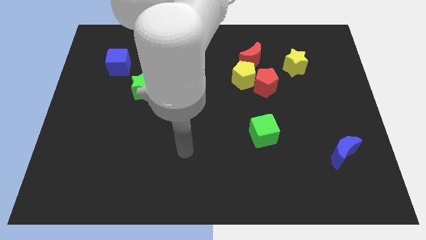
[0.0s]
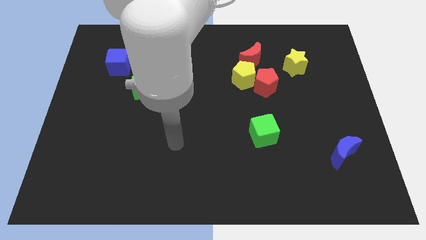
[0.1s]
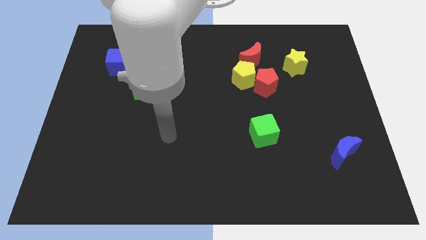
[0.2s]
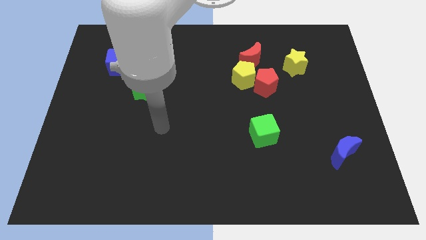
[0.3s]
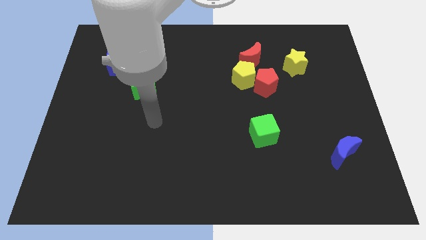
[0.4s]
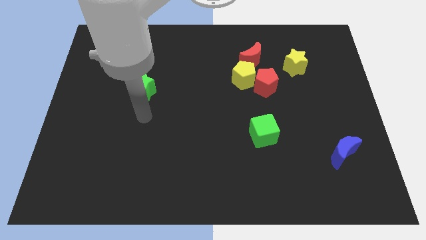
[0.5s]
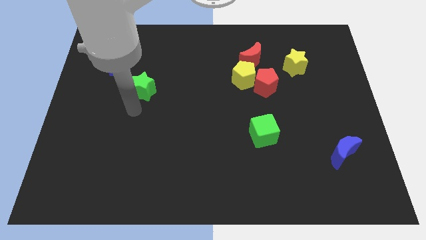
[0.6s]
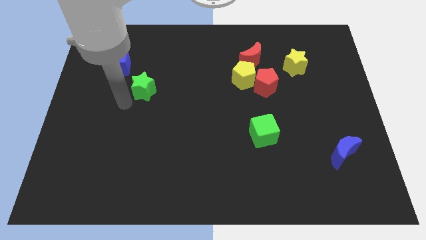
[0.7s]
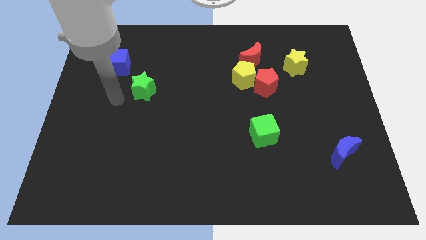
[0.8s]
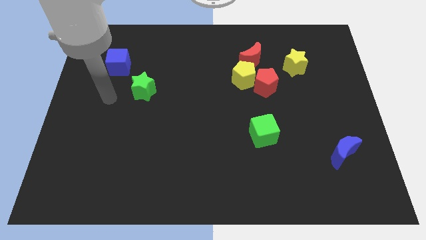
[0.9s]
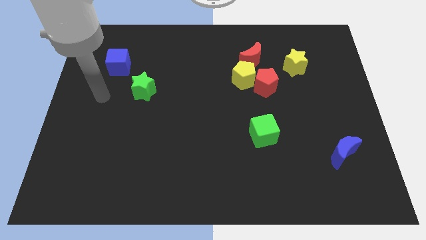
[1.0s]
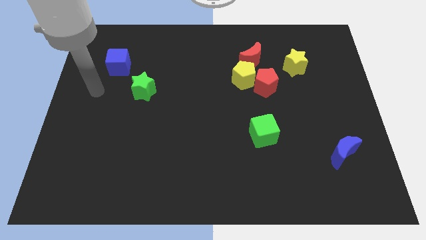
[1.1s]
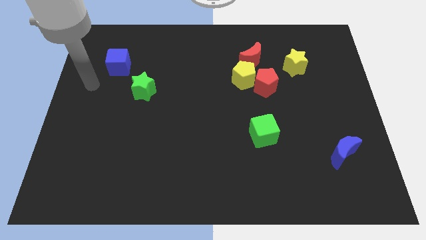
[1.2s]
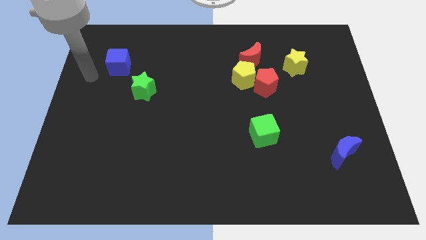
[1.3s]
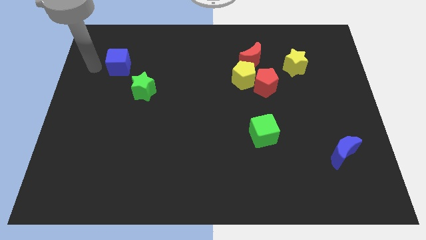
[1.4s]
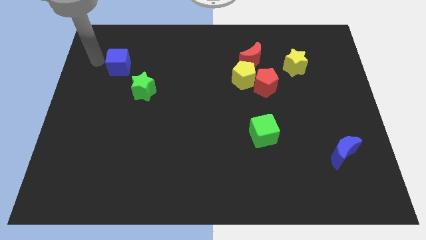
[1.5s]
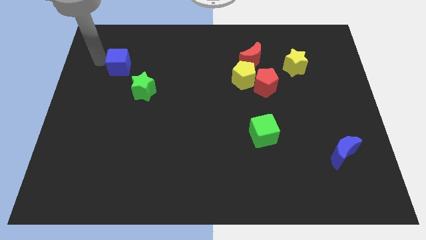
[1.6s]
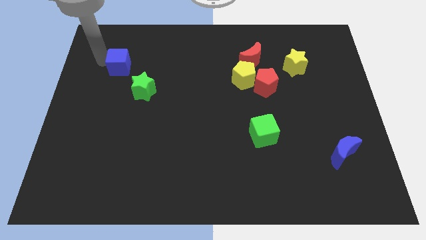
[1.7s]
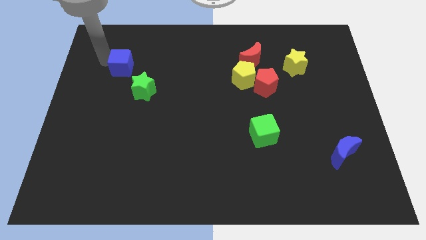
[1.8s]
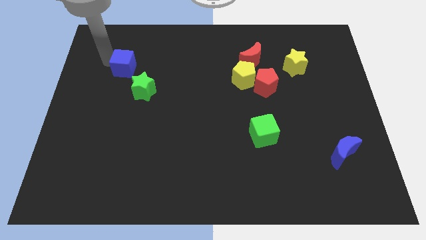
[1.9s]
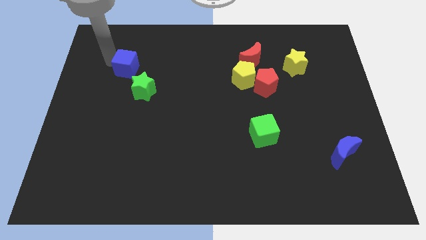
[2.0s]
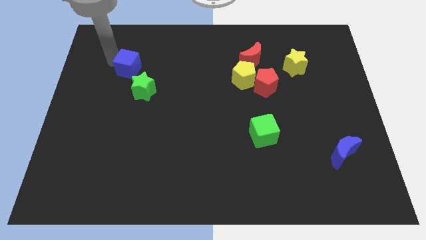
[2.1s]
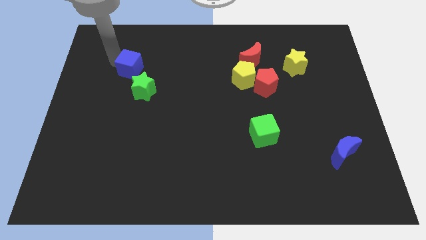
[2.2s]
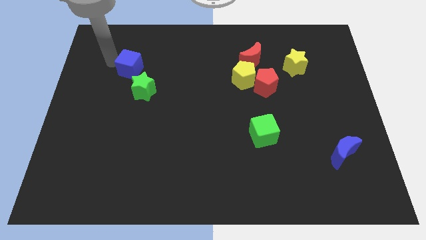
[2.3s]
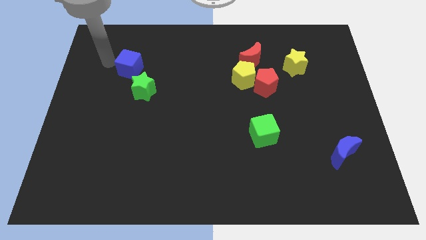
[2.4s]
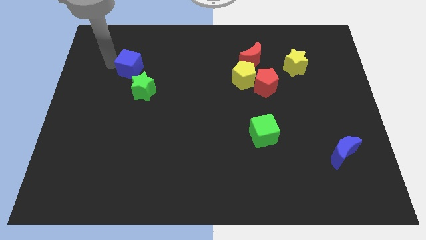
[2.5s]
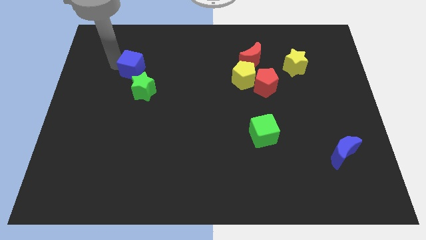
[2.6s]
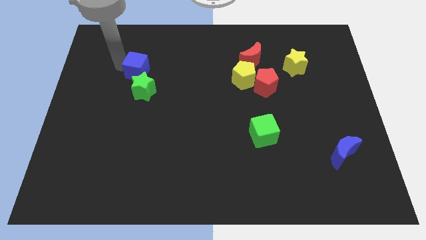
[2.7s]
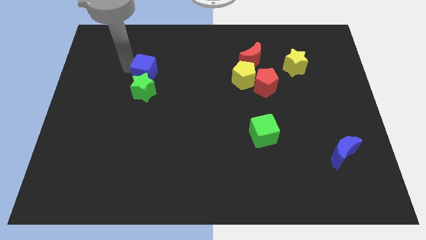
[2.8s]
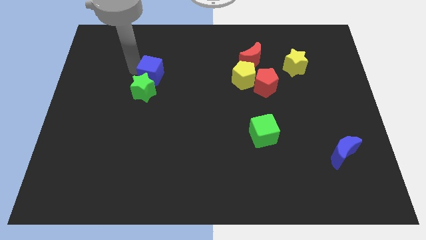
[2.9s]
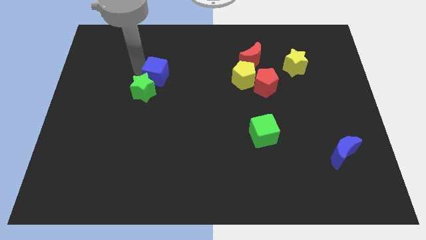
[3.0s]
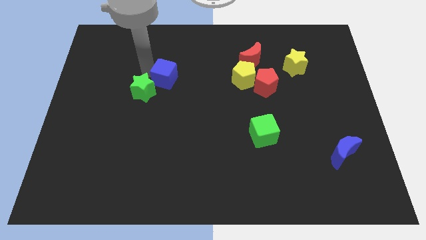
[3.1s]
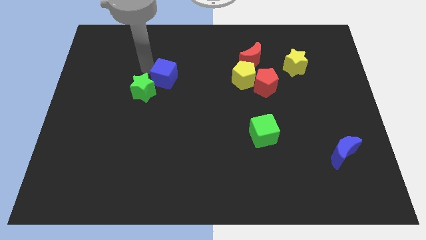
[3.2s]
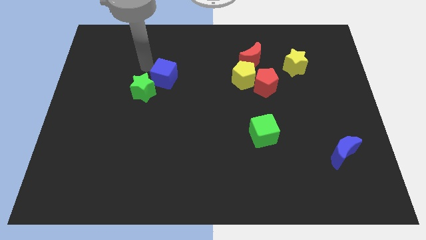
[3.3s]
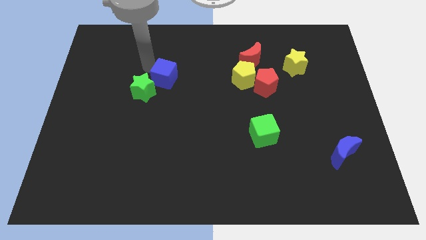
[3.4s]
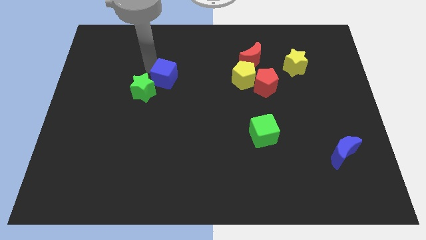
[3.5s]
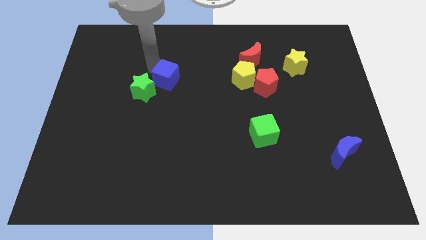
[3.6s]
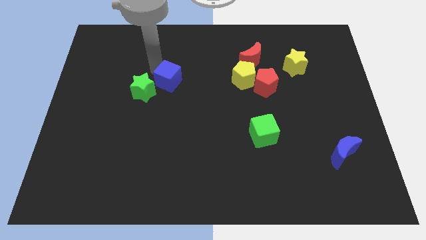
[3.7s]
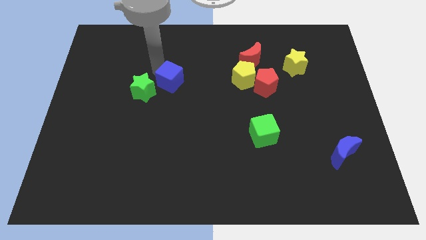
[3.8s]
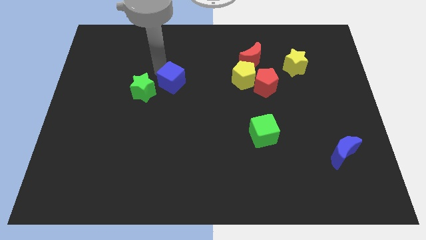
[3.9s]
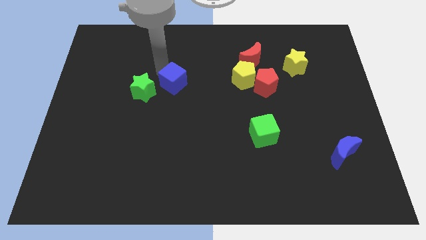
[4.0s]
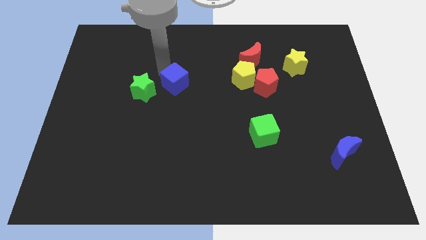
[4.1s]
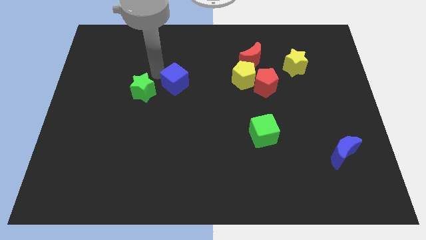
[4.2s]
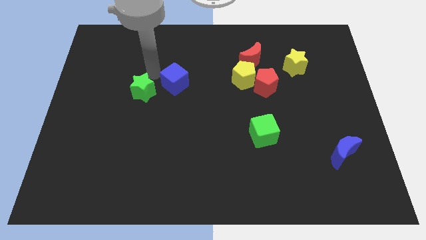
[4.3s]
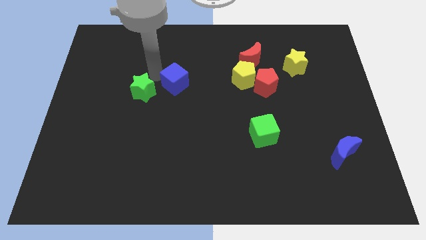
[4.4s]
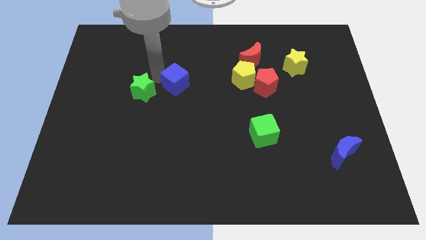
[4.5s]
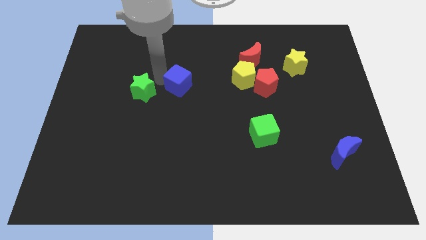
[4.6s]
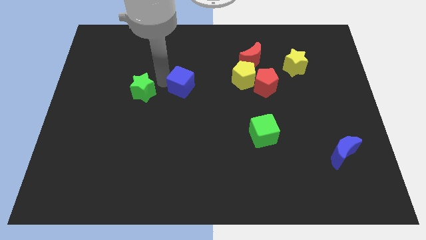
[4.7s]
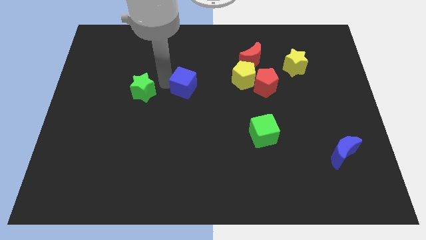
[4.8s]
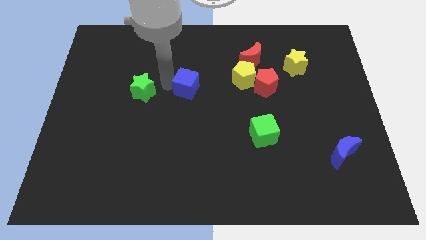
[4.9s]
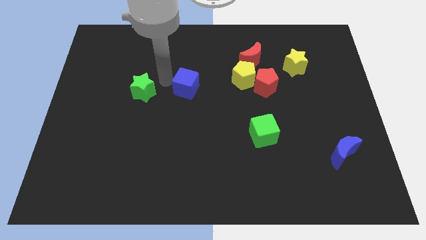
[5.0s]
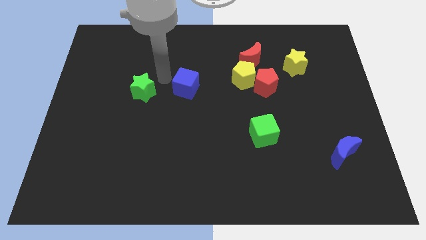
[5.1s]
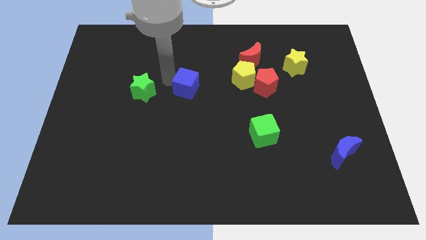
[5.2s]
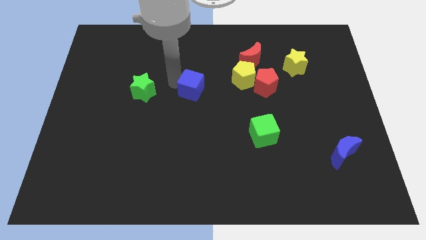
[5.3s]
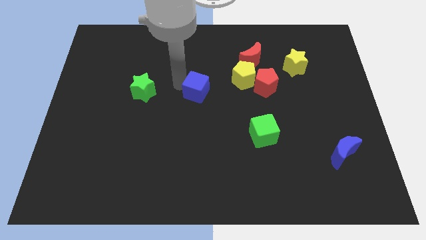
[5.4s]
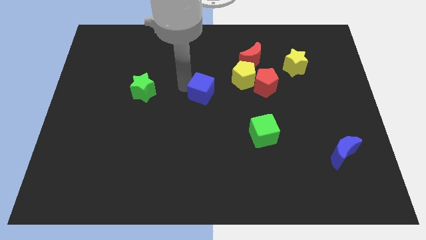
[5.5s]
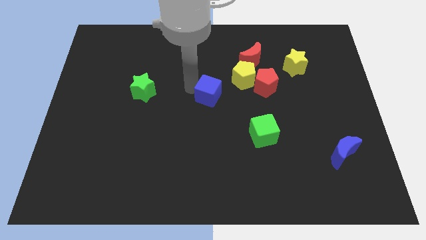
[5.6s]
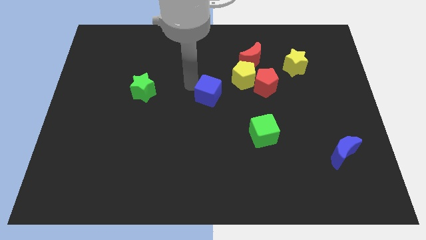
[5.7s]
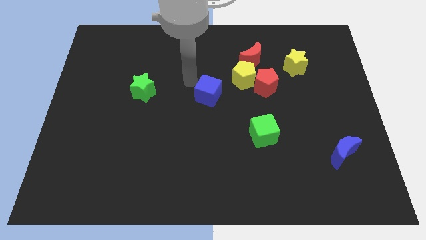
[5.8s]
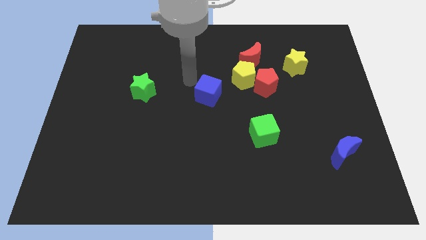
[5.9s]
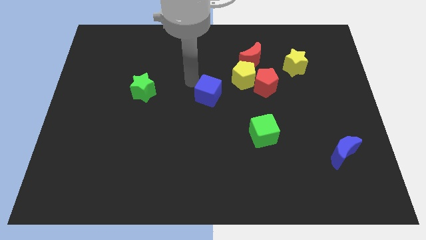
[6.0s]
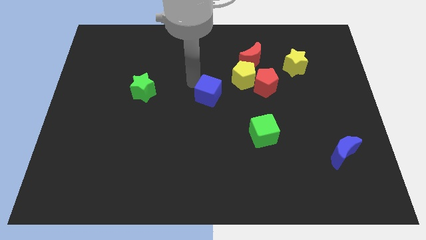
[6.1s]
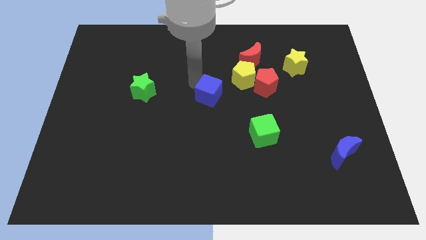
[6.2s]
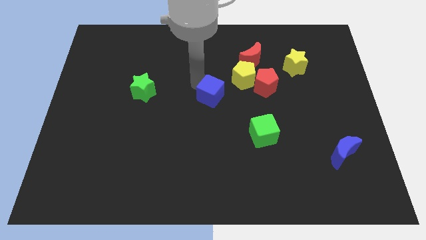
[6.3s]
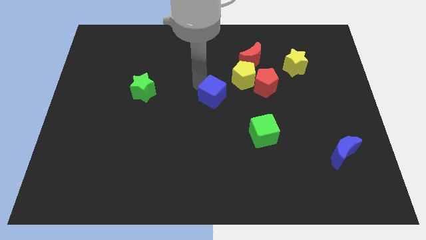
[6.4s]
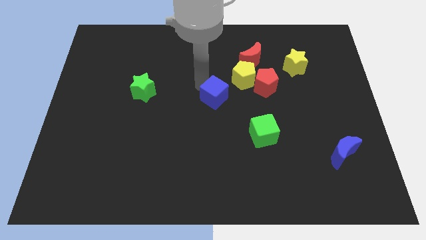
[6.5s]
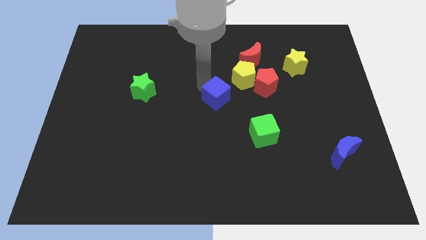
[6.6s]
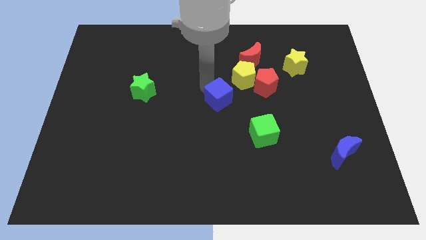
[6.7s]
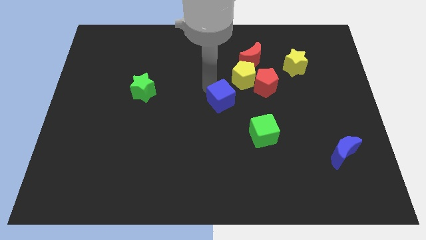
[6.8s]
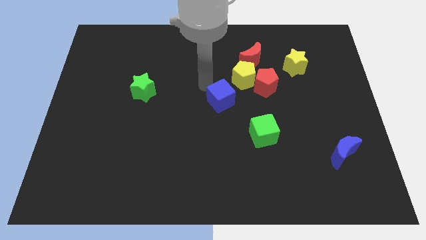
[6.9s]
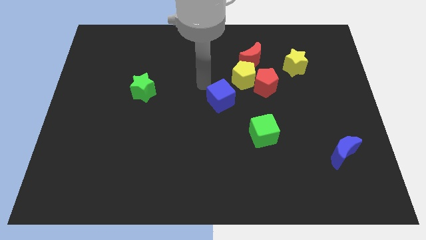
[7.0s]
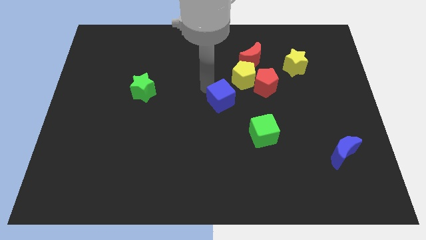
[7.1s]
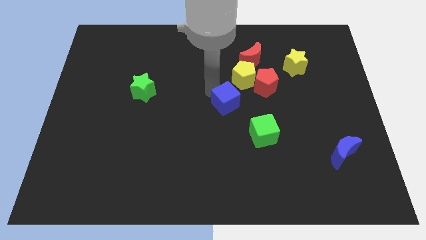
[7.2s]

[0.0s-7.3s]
move the blue cube to the top left of the green cube
